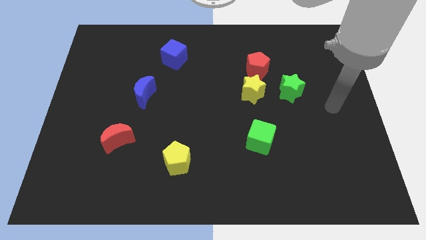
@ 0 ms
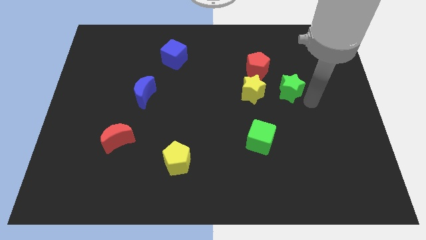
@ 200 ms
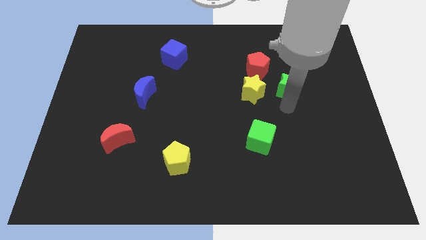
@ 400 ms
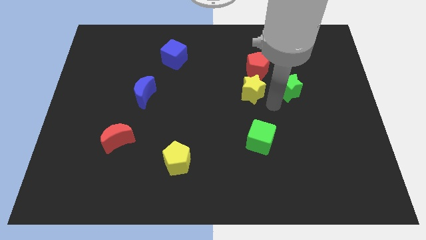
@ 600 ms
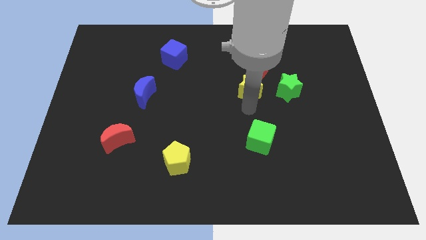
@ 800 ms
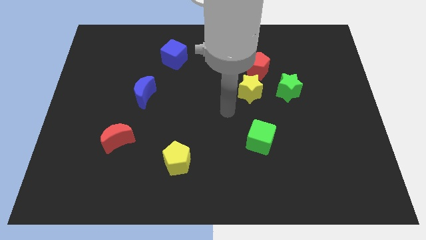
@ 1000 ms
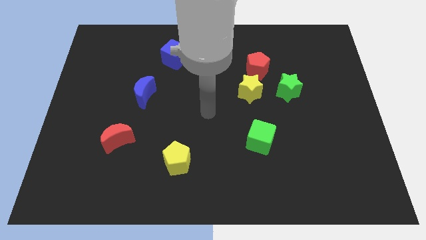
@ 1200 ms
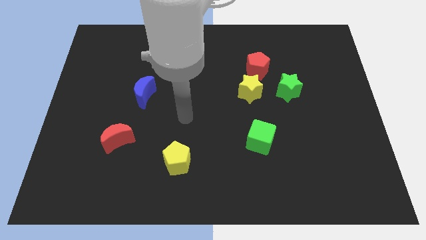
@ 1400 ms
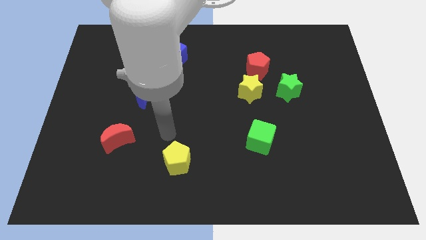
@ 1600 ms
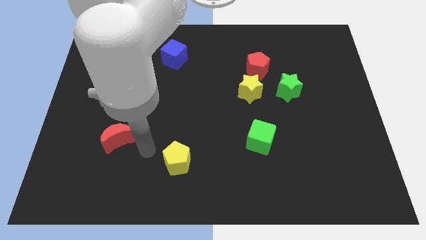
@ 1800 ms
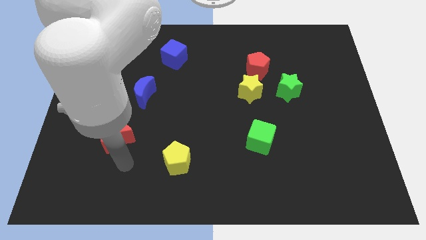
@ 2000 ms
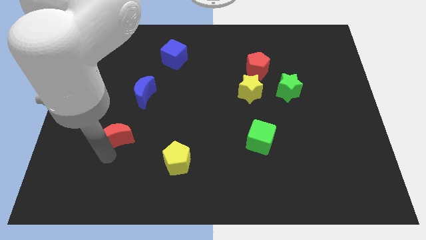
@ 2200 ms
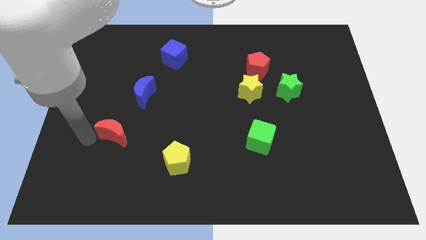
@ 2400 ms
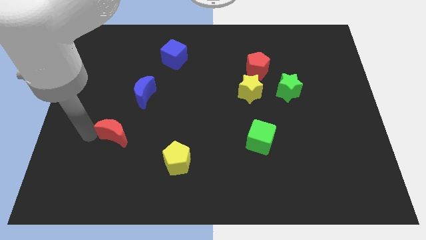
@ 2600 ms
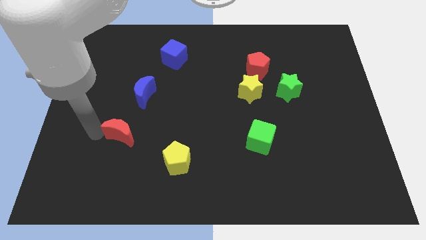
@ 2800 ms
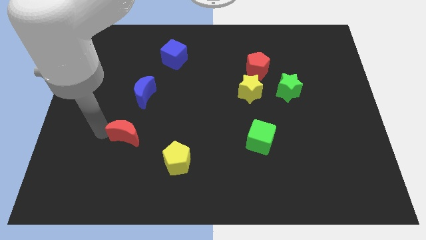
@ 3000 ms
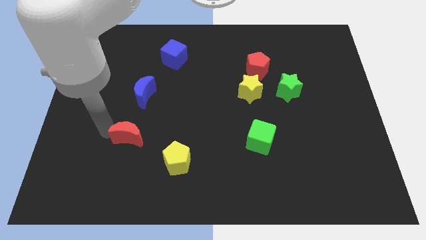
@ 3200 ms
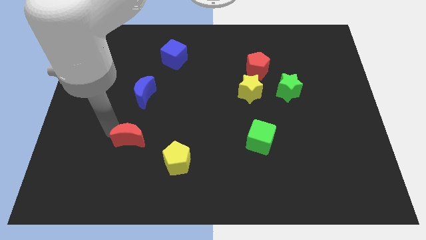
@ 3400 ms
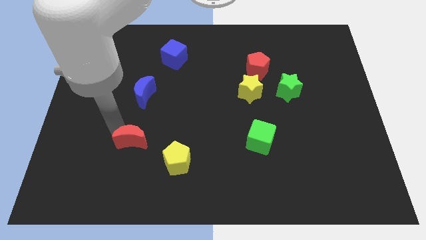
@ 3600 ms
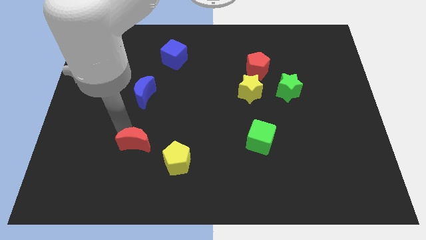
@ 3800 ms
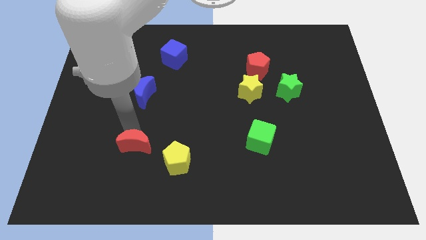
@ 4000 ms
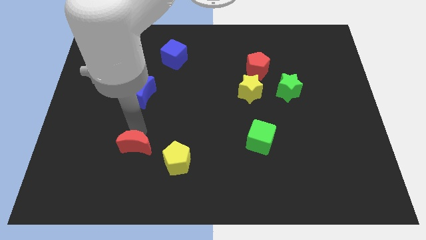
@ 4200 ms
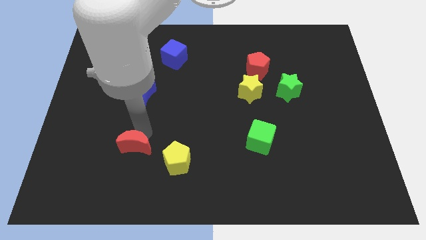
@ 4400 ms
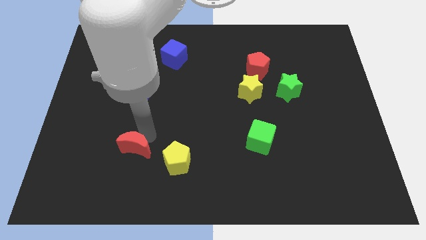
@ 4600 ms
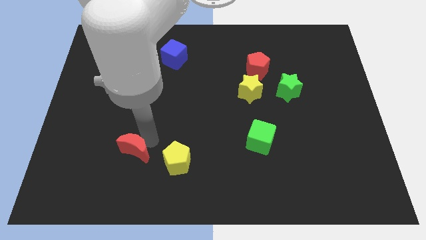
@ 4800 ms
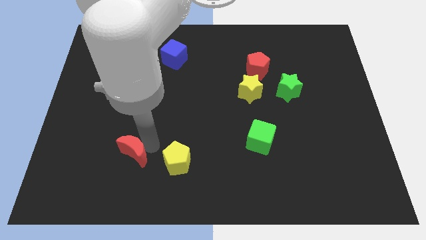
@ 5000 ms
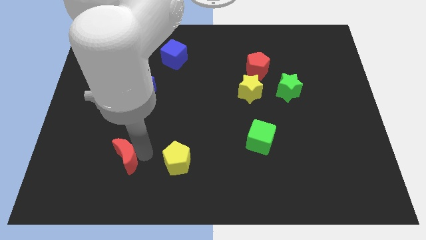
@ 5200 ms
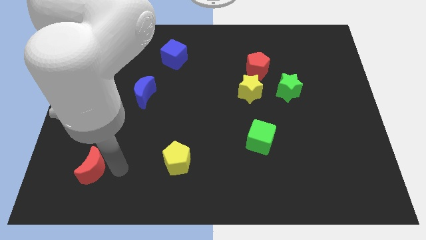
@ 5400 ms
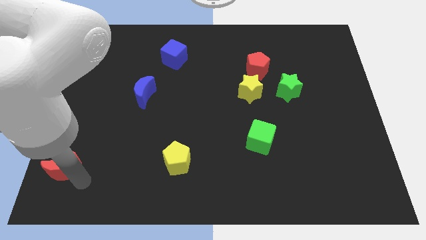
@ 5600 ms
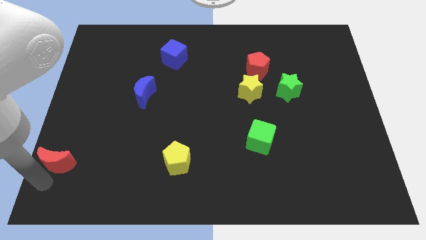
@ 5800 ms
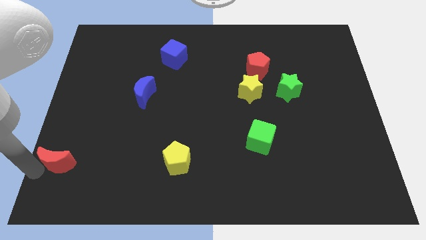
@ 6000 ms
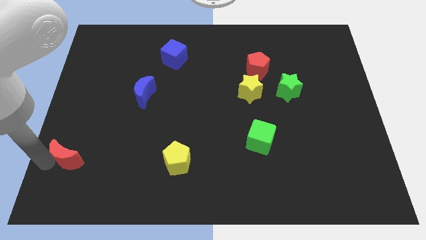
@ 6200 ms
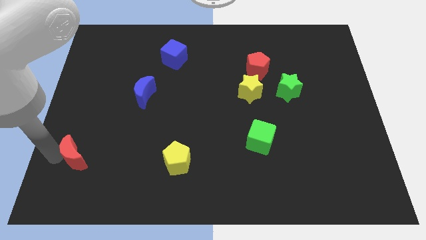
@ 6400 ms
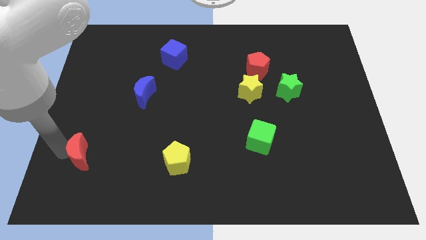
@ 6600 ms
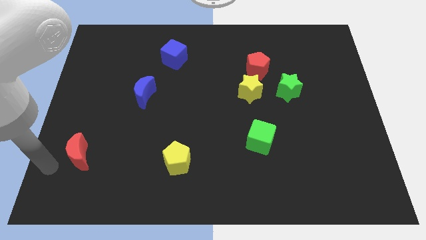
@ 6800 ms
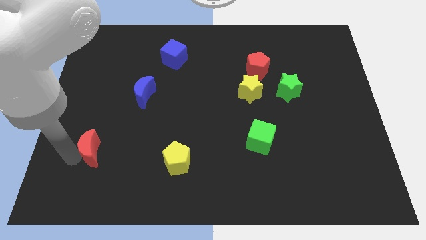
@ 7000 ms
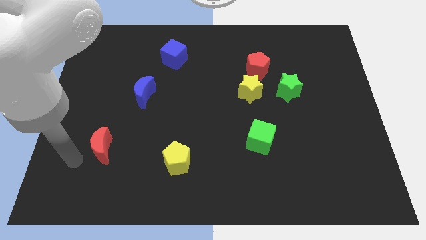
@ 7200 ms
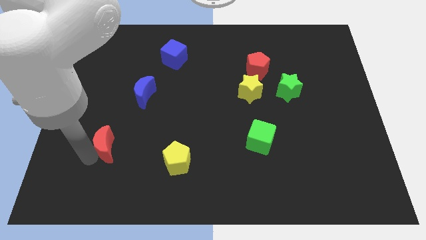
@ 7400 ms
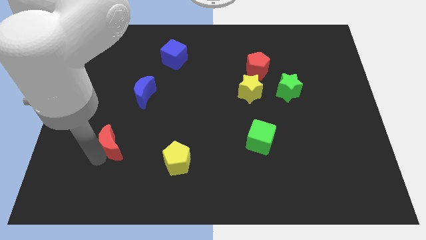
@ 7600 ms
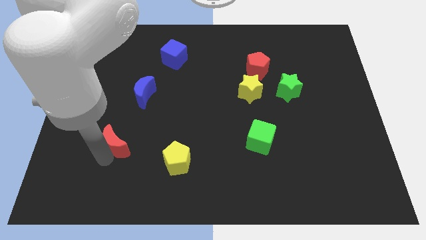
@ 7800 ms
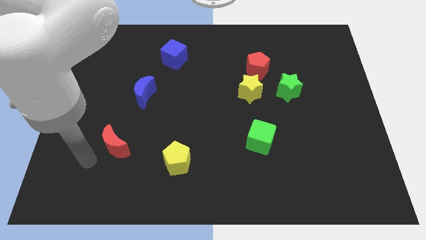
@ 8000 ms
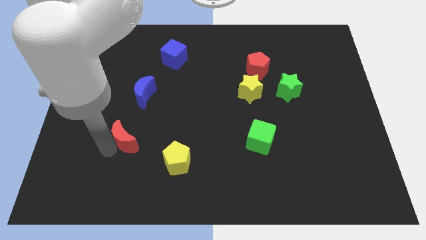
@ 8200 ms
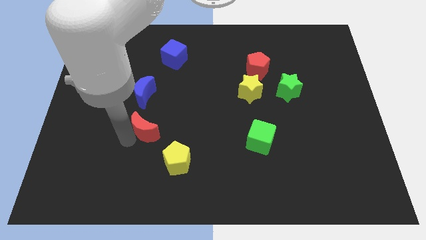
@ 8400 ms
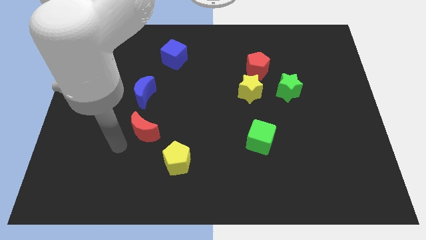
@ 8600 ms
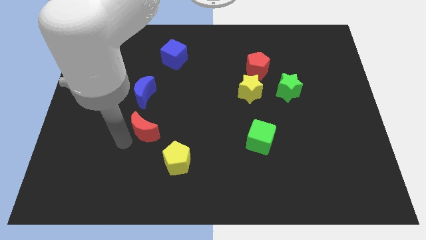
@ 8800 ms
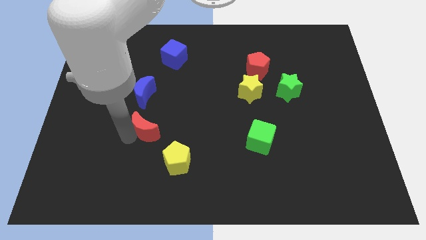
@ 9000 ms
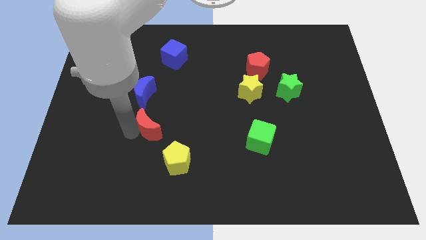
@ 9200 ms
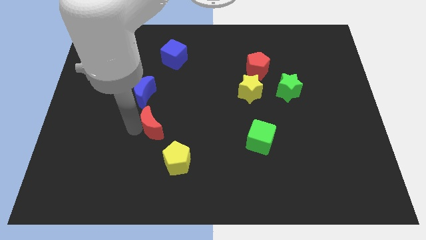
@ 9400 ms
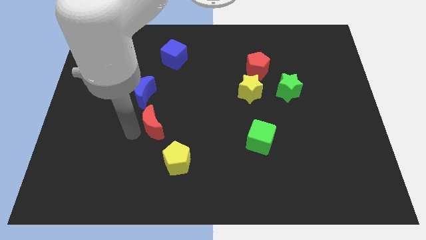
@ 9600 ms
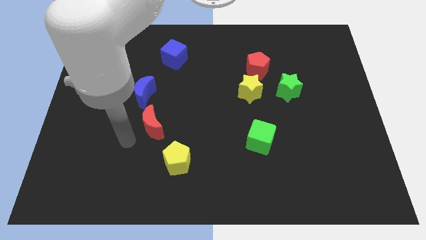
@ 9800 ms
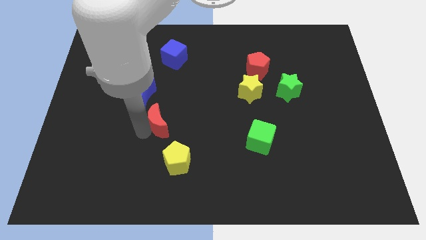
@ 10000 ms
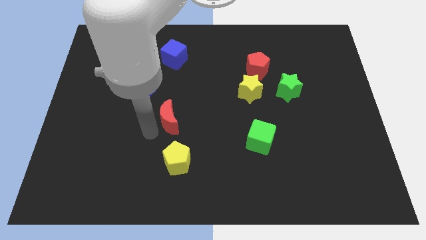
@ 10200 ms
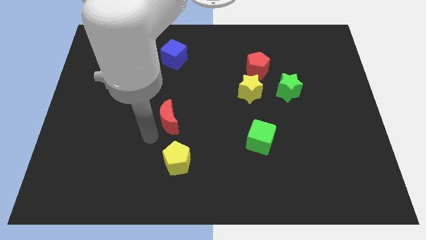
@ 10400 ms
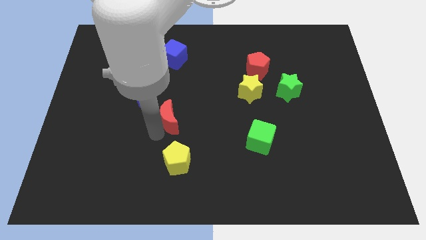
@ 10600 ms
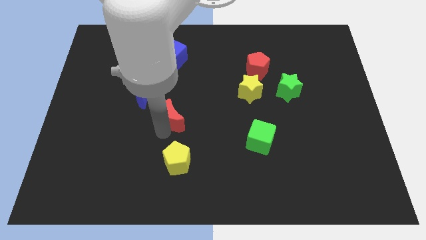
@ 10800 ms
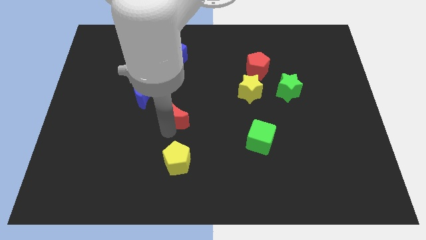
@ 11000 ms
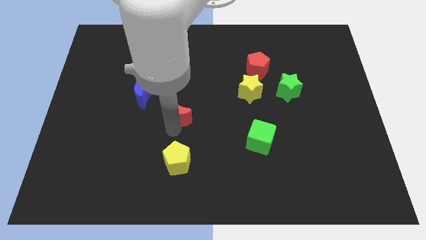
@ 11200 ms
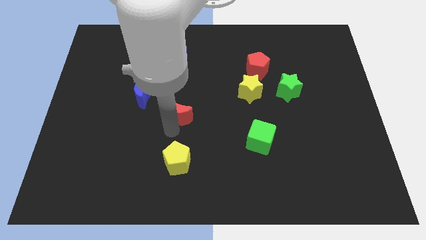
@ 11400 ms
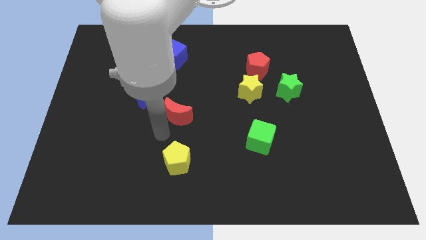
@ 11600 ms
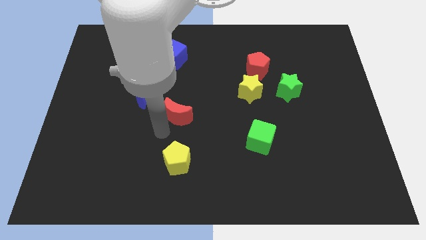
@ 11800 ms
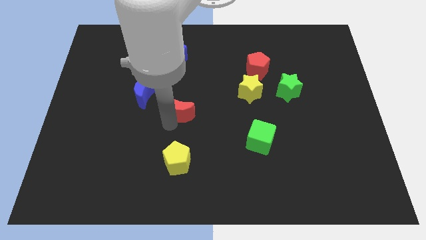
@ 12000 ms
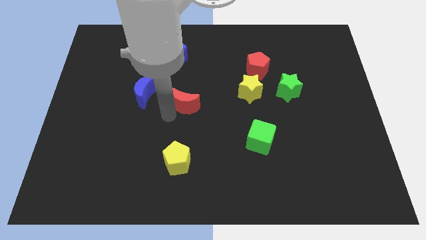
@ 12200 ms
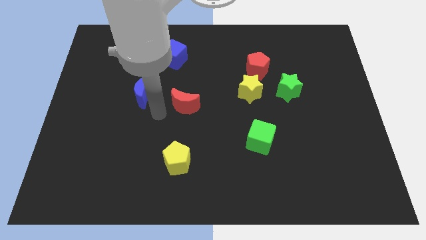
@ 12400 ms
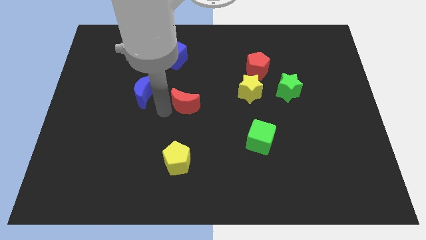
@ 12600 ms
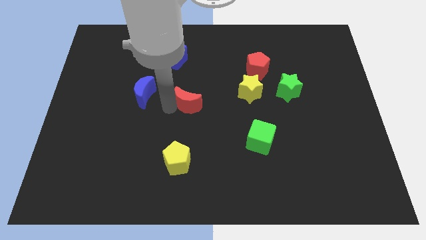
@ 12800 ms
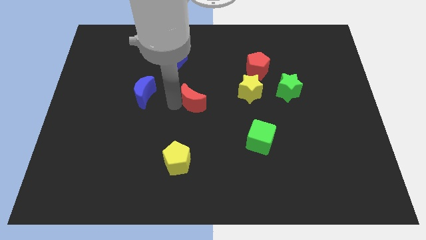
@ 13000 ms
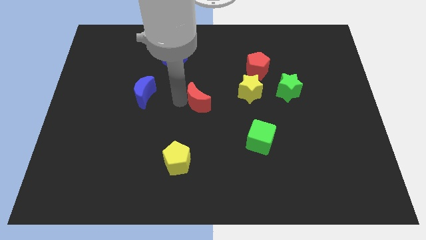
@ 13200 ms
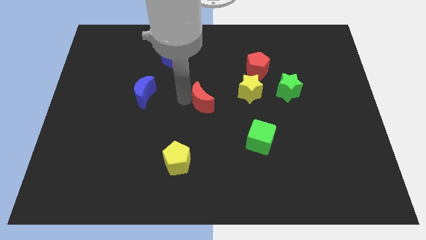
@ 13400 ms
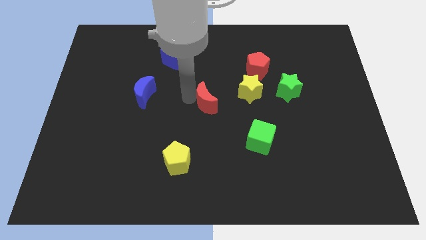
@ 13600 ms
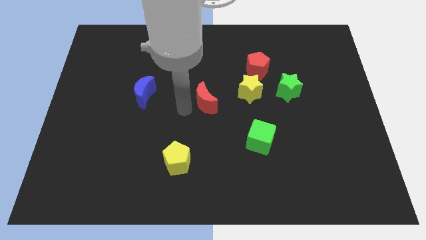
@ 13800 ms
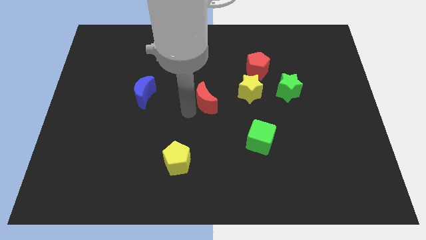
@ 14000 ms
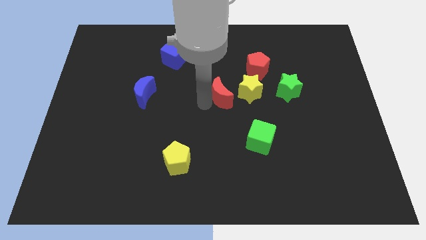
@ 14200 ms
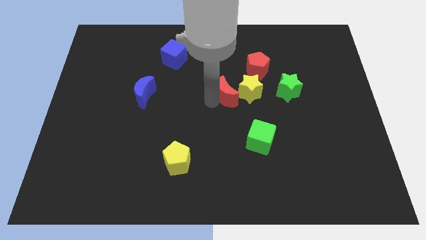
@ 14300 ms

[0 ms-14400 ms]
move the red moon diagonally down and to the left of the red pentagon

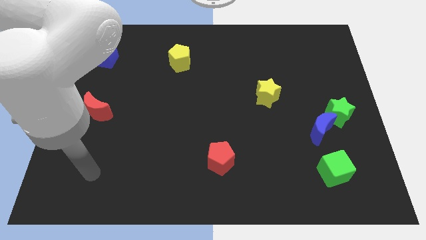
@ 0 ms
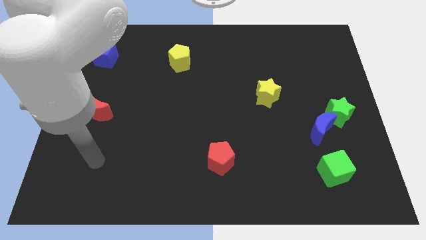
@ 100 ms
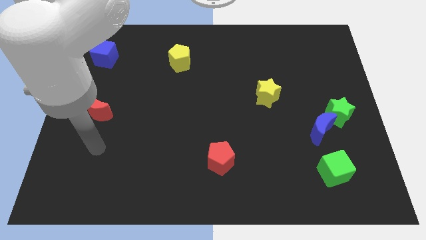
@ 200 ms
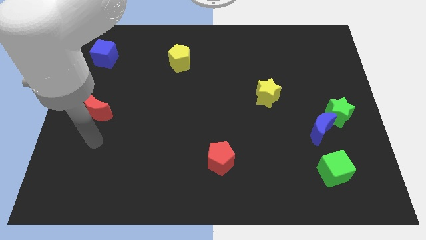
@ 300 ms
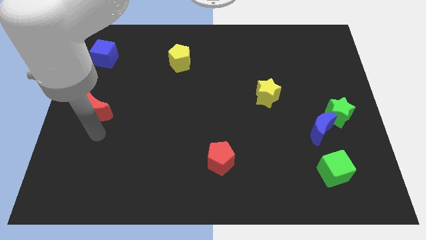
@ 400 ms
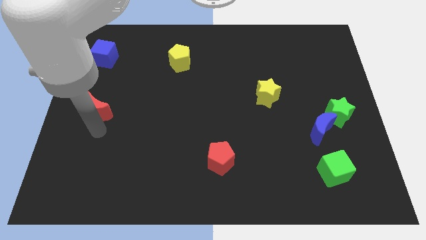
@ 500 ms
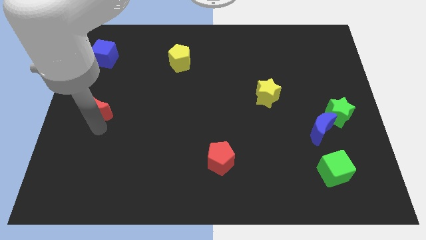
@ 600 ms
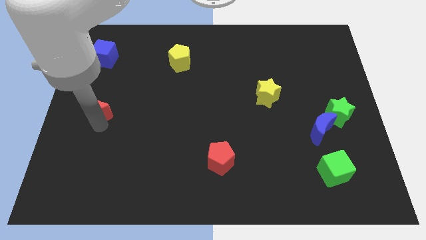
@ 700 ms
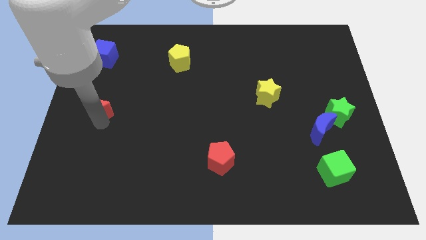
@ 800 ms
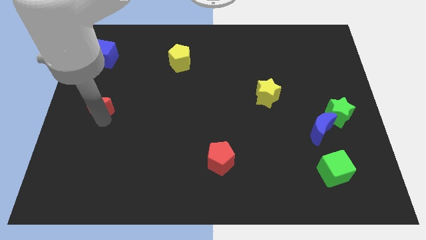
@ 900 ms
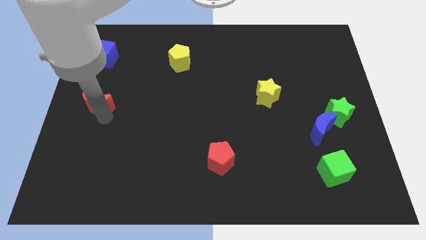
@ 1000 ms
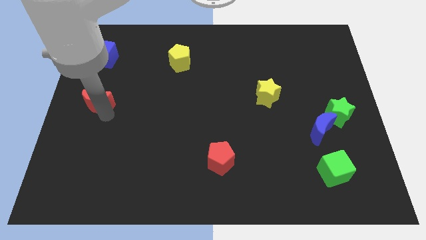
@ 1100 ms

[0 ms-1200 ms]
put the red moon to the bottom of the blue cube
